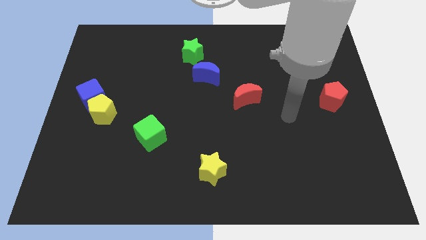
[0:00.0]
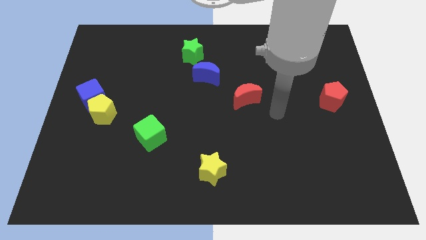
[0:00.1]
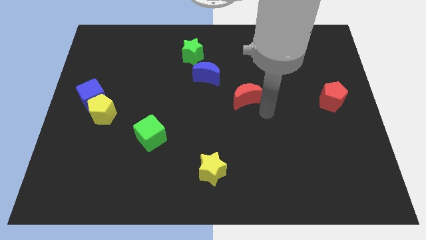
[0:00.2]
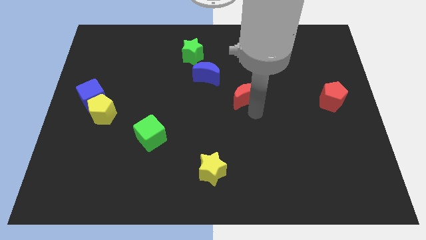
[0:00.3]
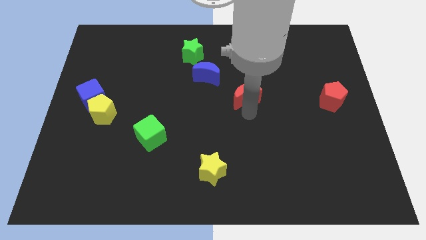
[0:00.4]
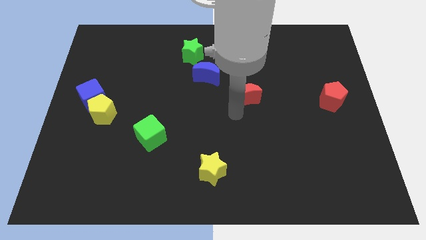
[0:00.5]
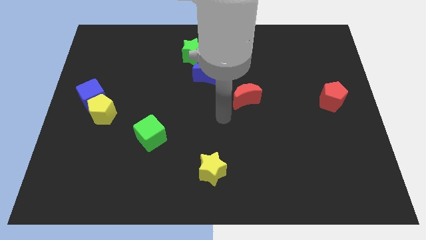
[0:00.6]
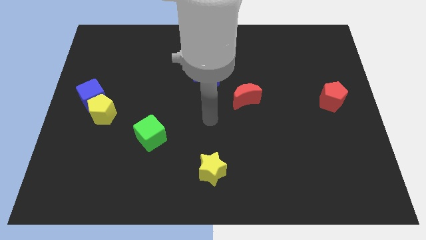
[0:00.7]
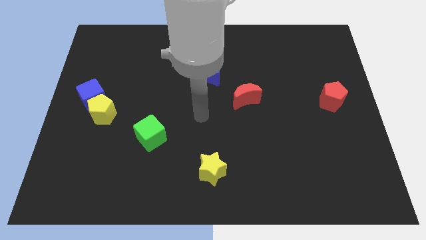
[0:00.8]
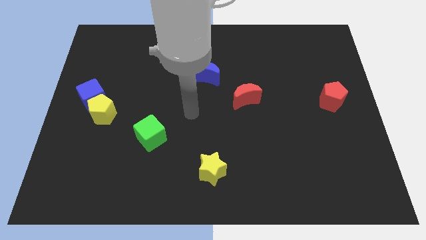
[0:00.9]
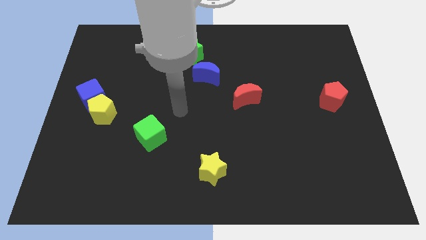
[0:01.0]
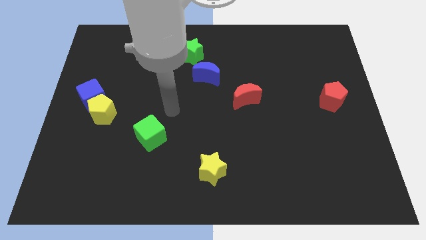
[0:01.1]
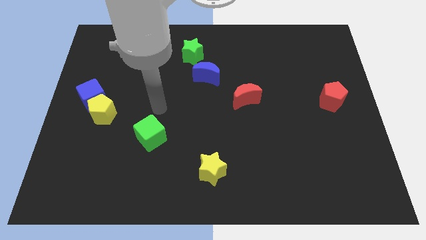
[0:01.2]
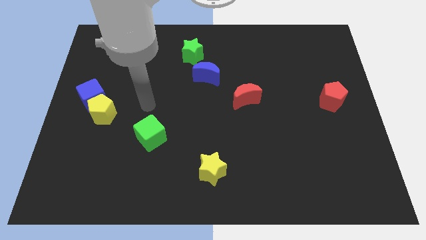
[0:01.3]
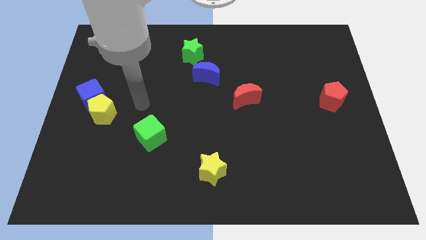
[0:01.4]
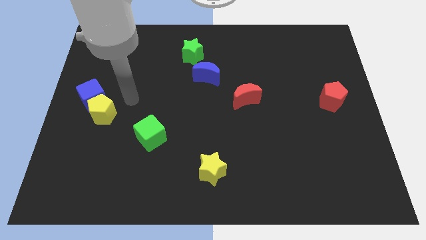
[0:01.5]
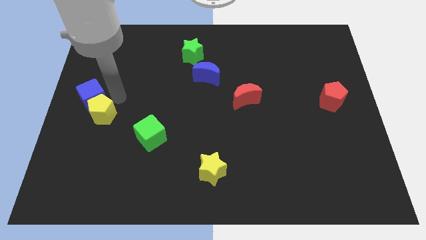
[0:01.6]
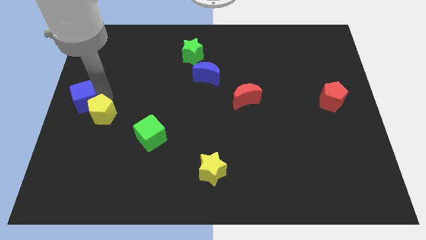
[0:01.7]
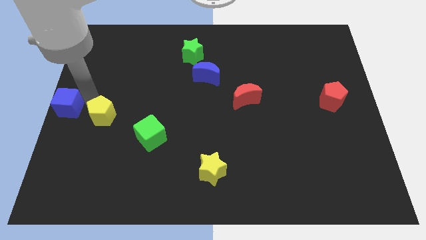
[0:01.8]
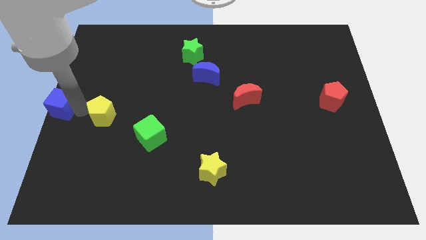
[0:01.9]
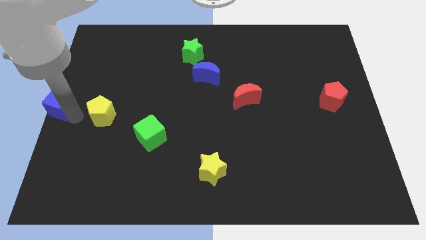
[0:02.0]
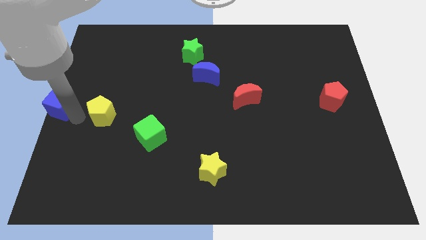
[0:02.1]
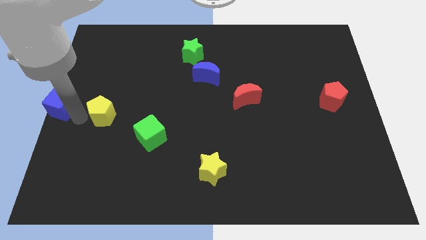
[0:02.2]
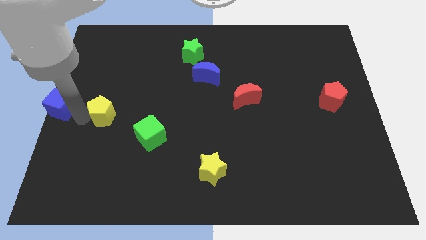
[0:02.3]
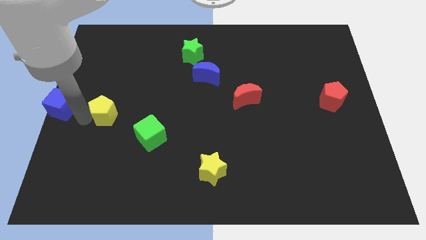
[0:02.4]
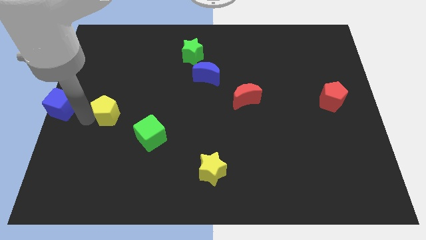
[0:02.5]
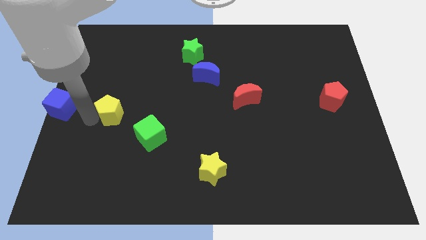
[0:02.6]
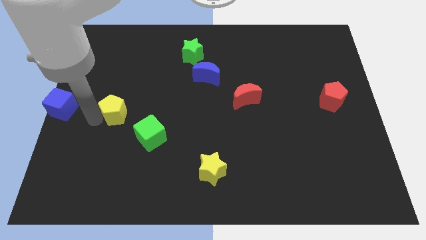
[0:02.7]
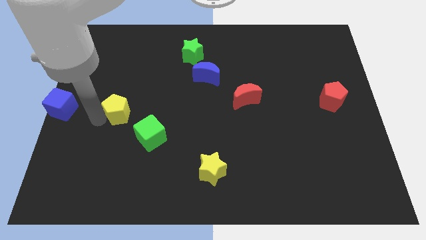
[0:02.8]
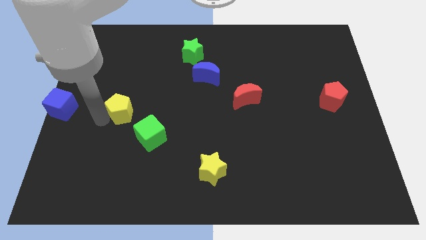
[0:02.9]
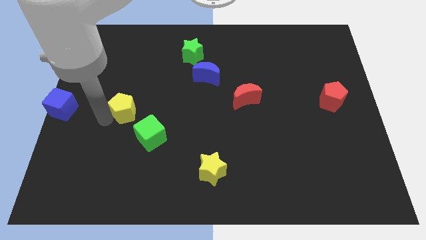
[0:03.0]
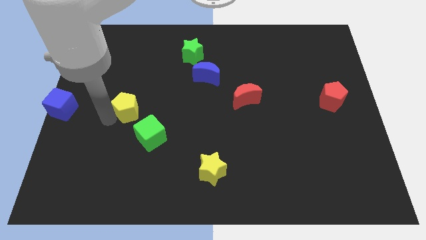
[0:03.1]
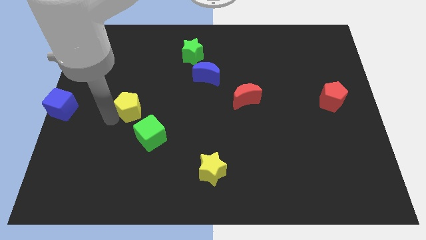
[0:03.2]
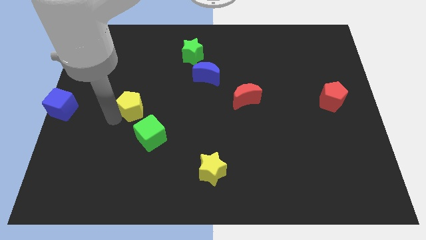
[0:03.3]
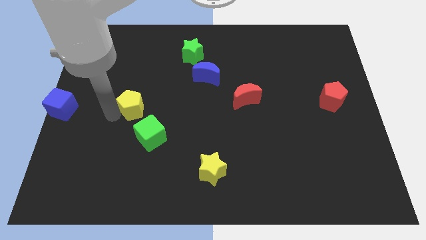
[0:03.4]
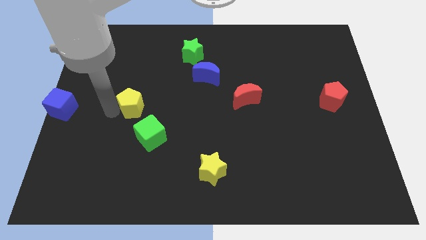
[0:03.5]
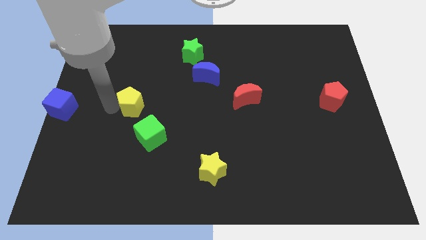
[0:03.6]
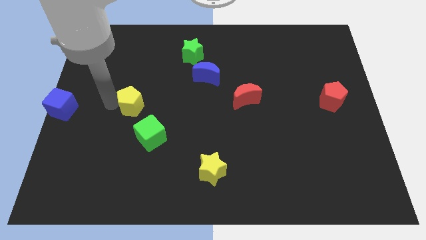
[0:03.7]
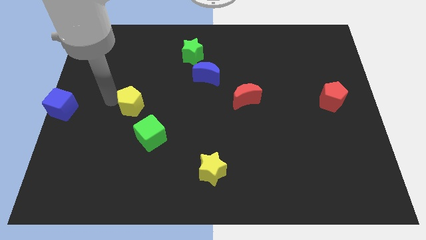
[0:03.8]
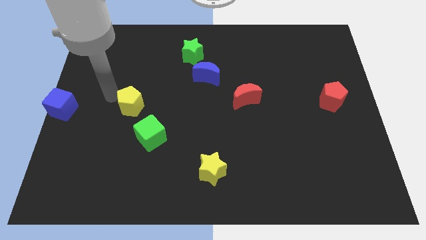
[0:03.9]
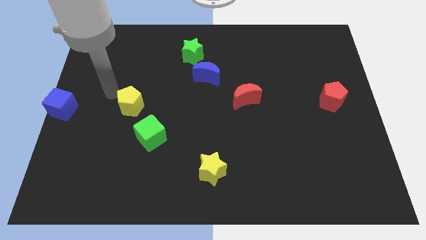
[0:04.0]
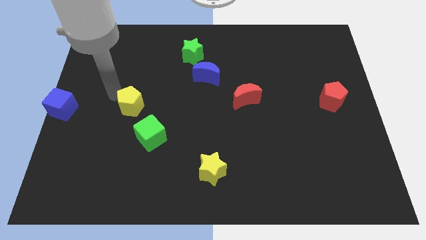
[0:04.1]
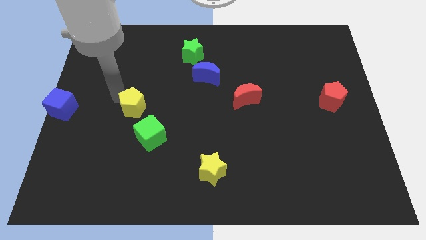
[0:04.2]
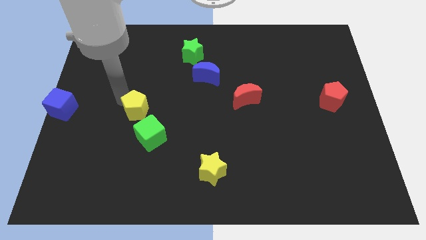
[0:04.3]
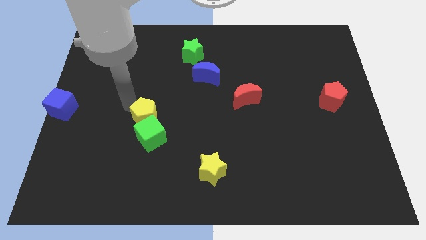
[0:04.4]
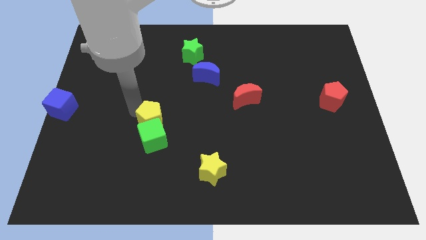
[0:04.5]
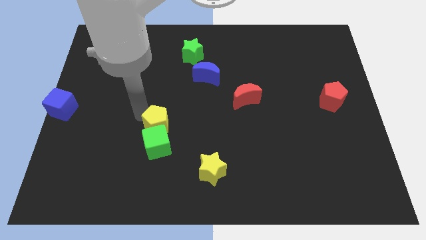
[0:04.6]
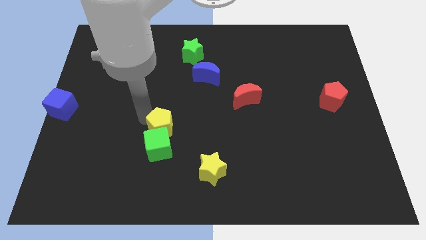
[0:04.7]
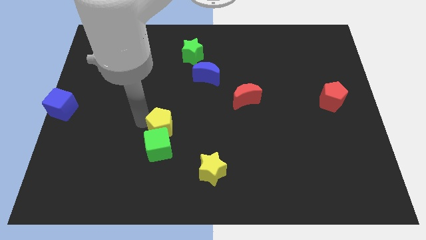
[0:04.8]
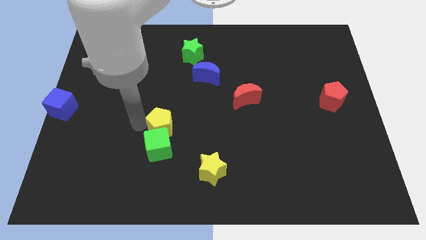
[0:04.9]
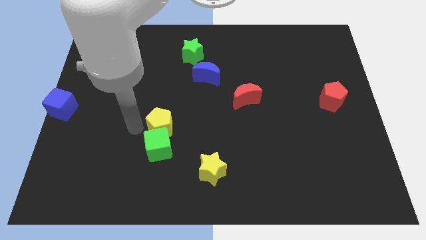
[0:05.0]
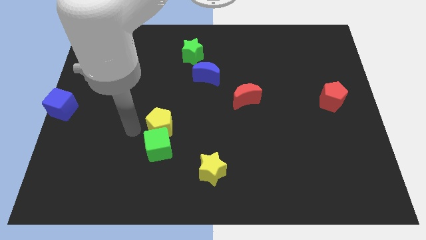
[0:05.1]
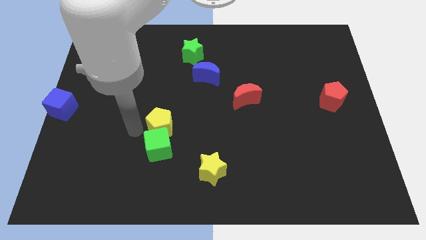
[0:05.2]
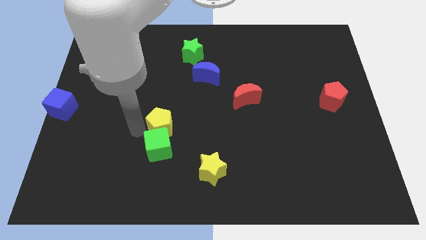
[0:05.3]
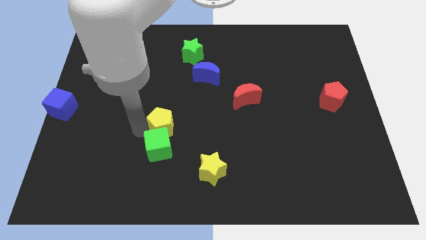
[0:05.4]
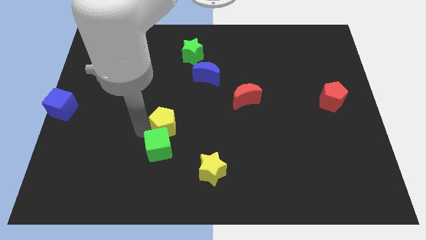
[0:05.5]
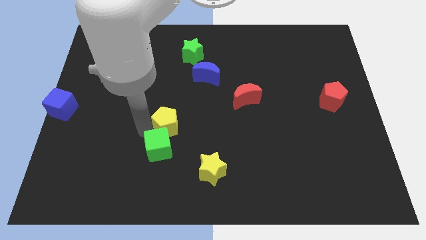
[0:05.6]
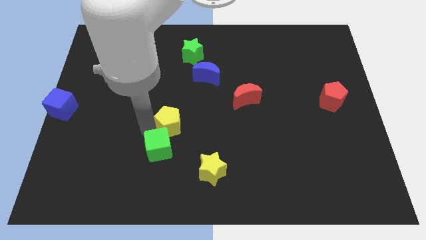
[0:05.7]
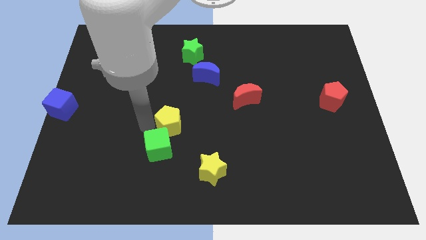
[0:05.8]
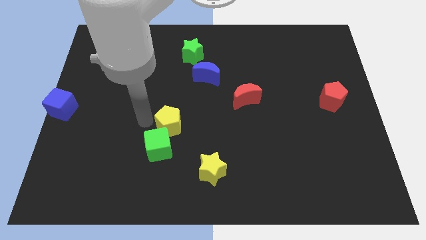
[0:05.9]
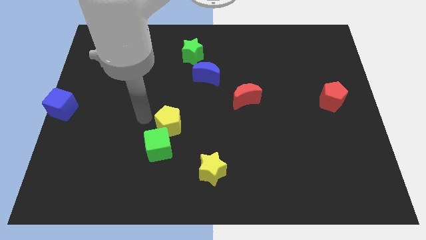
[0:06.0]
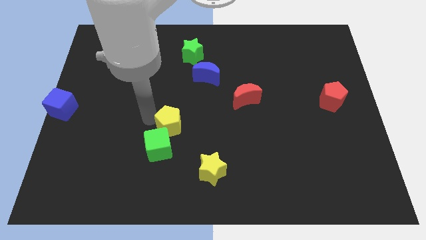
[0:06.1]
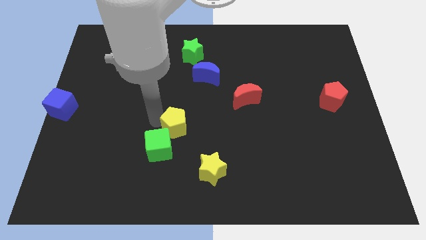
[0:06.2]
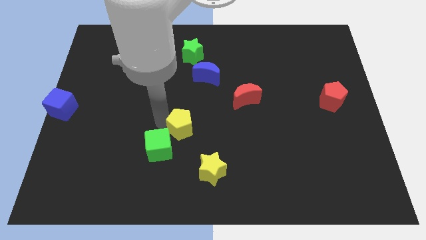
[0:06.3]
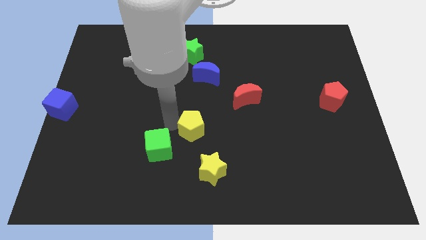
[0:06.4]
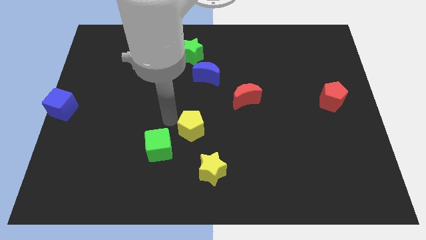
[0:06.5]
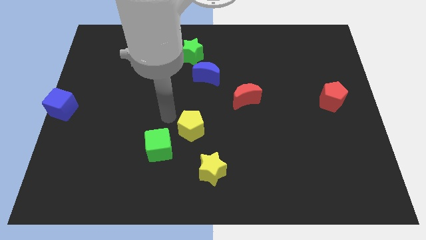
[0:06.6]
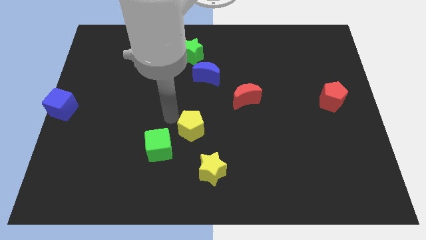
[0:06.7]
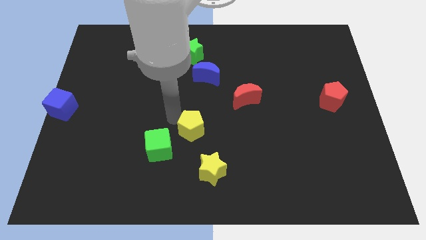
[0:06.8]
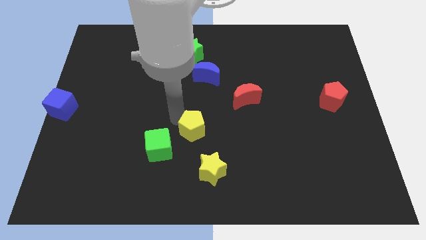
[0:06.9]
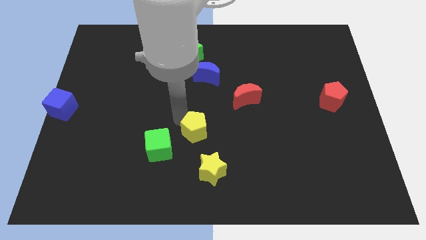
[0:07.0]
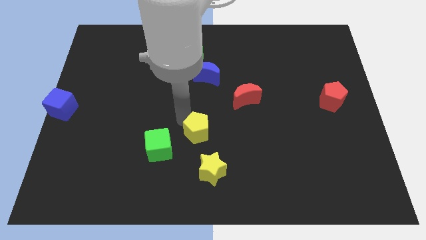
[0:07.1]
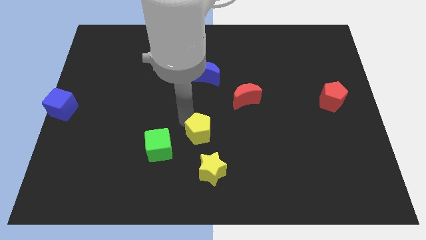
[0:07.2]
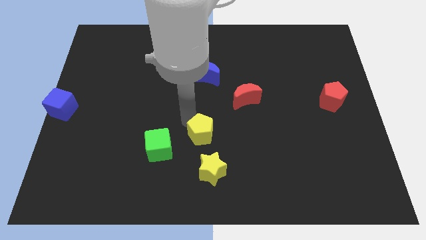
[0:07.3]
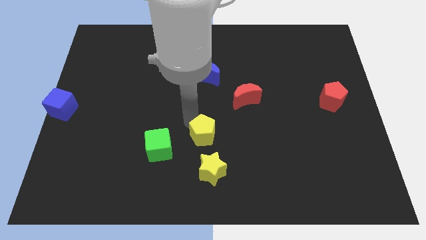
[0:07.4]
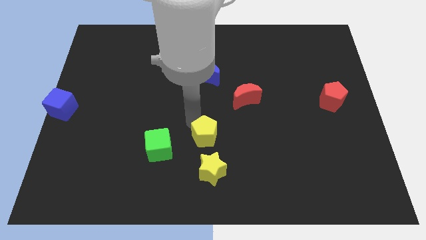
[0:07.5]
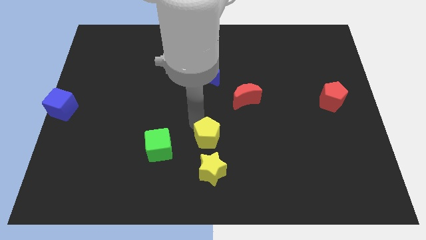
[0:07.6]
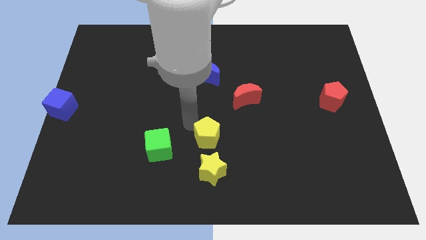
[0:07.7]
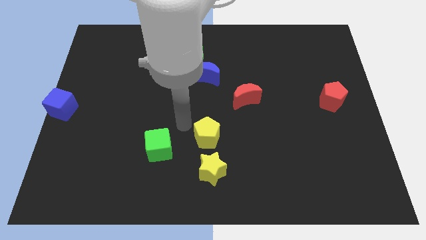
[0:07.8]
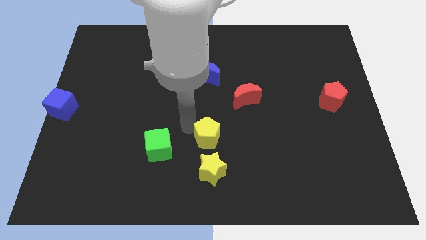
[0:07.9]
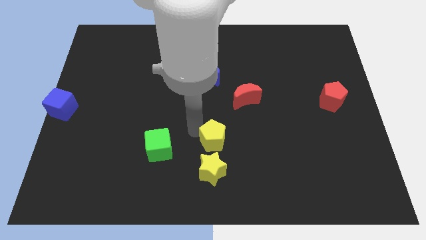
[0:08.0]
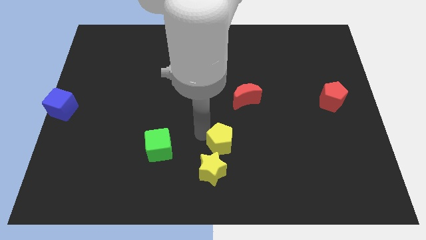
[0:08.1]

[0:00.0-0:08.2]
move the yellow pentagon to the top right side of the yellow star
